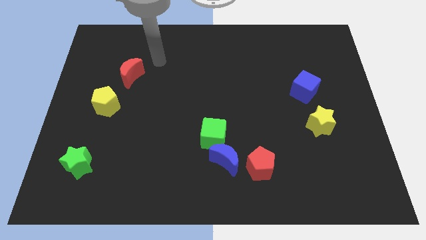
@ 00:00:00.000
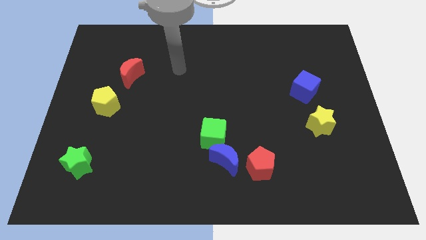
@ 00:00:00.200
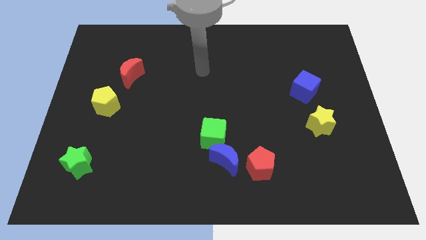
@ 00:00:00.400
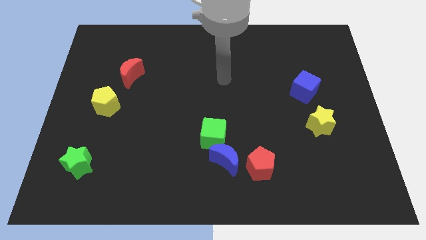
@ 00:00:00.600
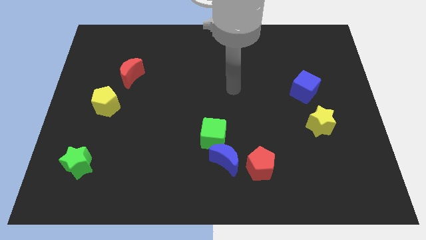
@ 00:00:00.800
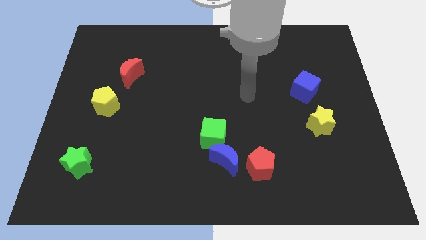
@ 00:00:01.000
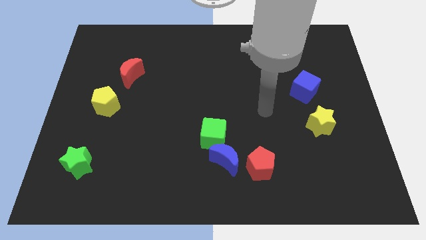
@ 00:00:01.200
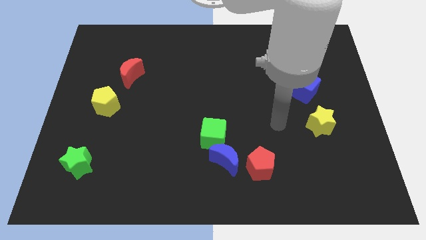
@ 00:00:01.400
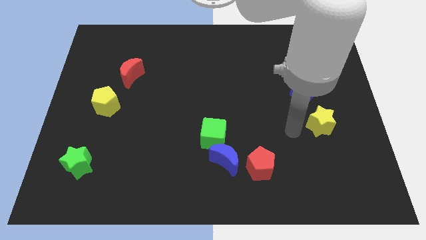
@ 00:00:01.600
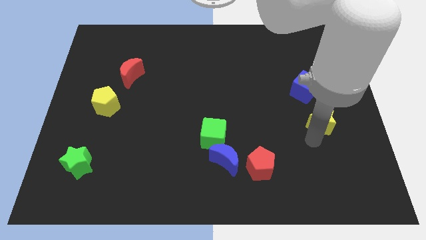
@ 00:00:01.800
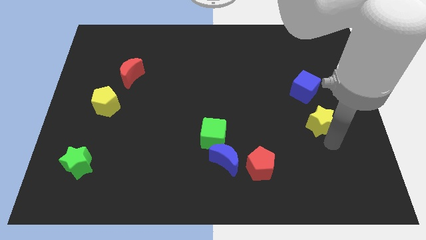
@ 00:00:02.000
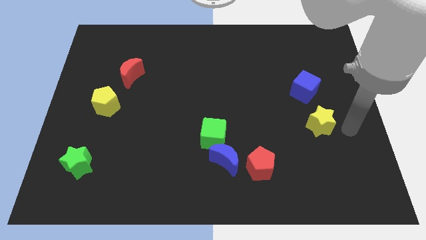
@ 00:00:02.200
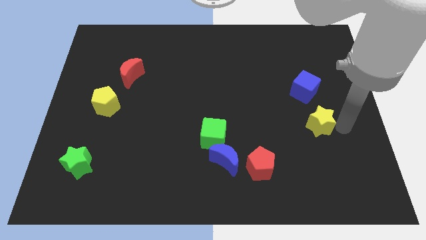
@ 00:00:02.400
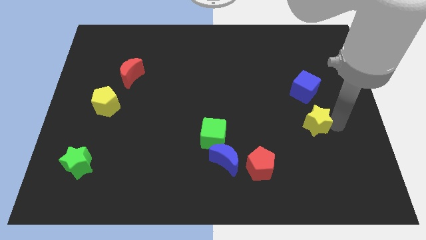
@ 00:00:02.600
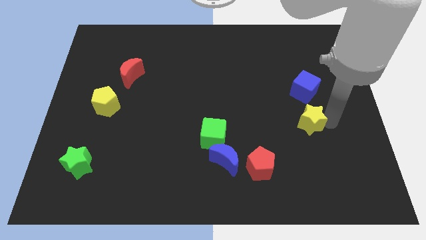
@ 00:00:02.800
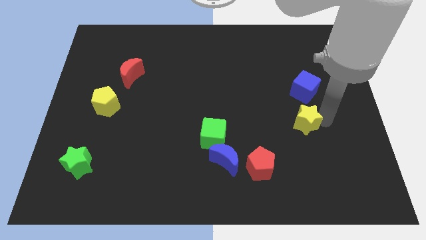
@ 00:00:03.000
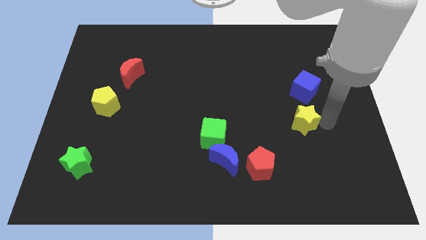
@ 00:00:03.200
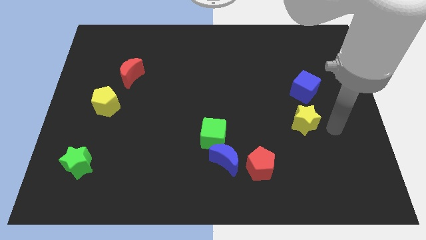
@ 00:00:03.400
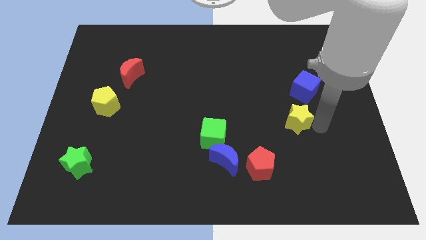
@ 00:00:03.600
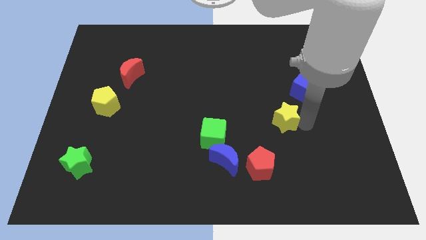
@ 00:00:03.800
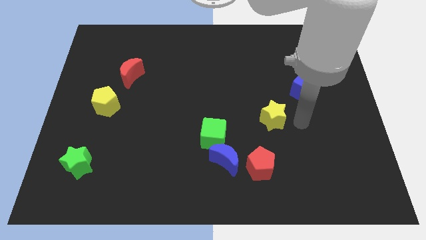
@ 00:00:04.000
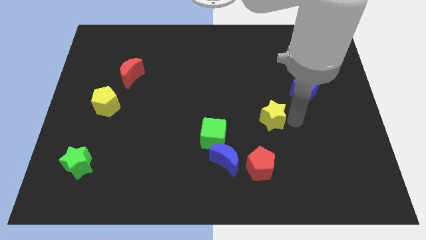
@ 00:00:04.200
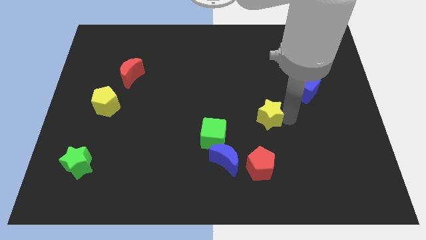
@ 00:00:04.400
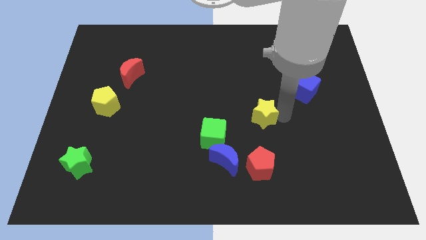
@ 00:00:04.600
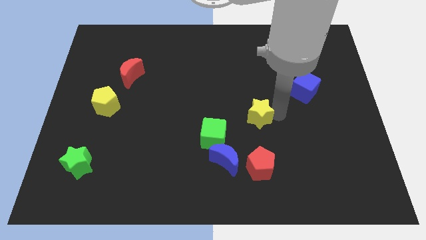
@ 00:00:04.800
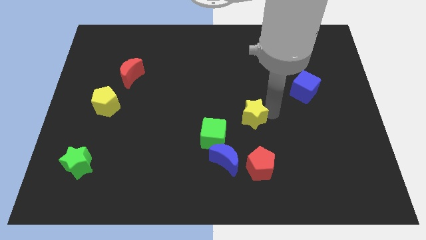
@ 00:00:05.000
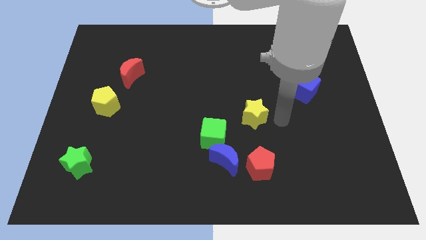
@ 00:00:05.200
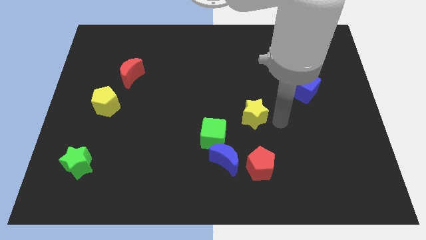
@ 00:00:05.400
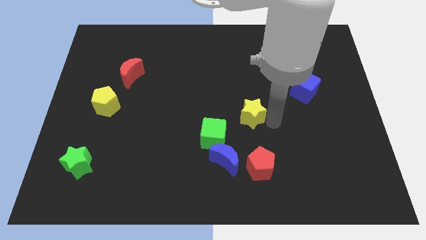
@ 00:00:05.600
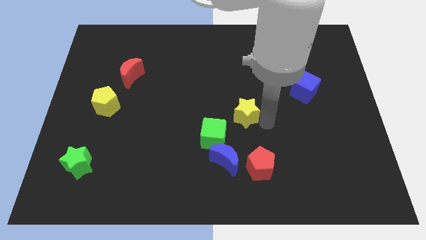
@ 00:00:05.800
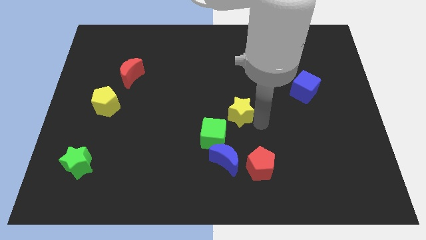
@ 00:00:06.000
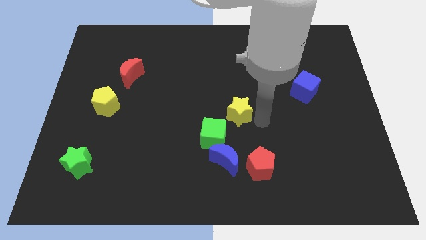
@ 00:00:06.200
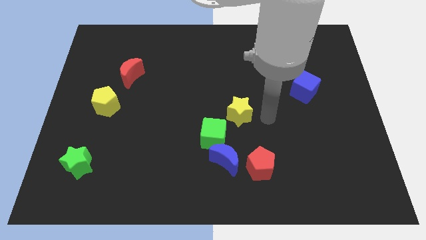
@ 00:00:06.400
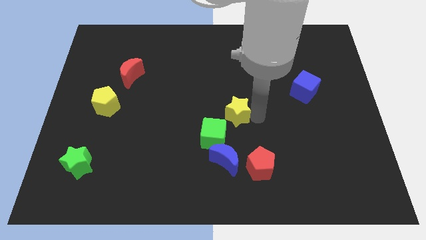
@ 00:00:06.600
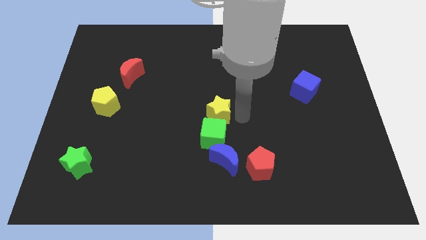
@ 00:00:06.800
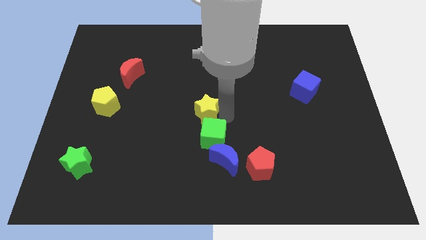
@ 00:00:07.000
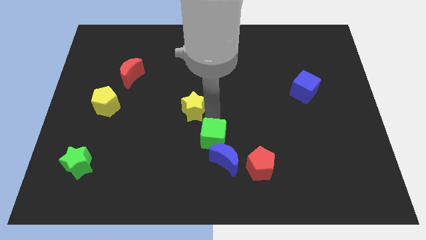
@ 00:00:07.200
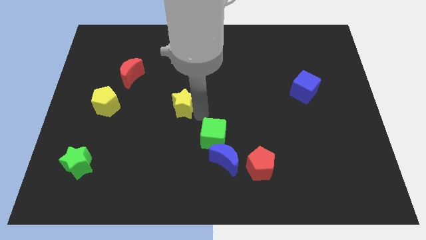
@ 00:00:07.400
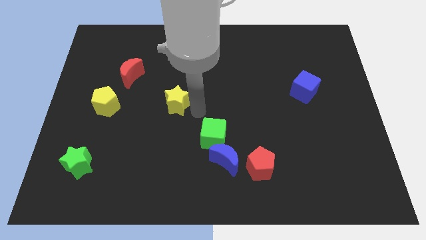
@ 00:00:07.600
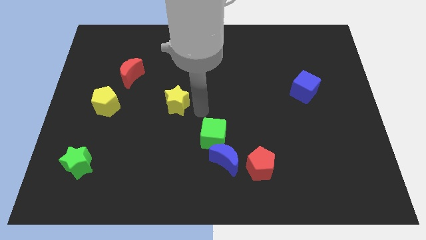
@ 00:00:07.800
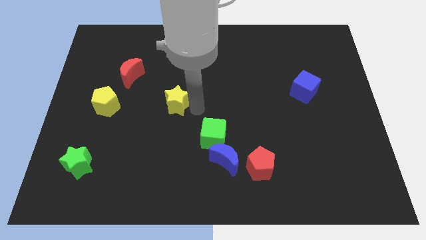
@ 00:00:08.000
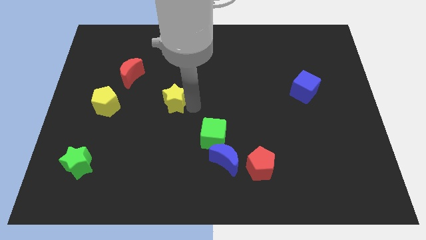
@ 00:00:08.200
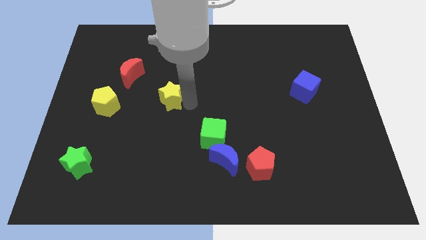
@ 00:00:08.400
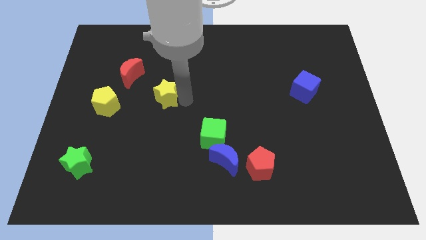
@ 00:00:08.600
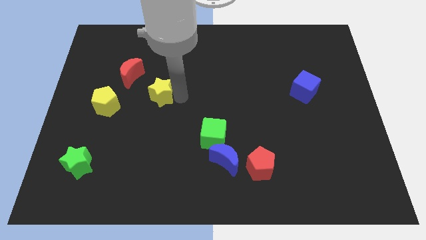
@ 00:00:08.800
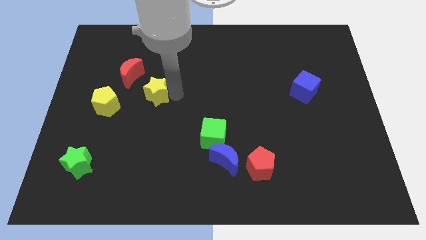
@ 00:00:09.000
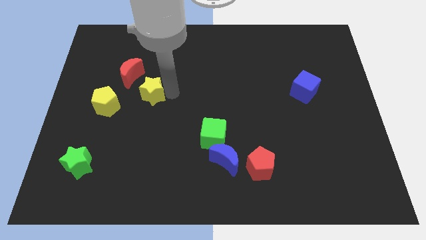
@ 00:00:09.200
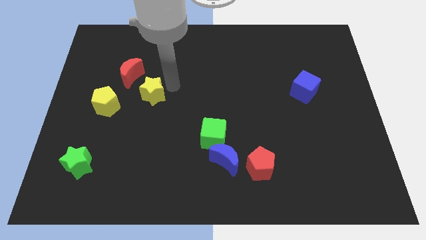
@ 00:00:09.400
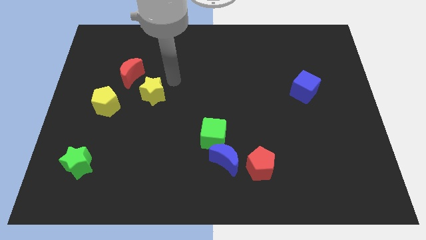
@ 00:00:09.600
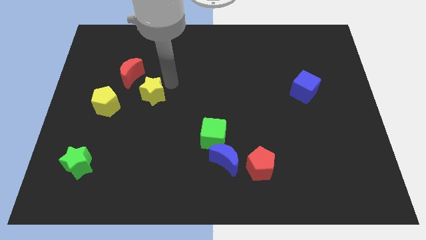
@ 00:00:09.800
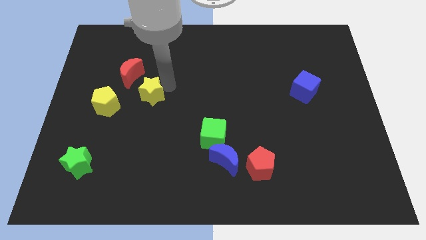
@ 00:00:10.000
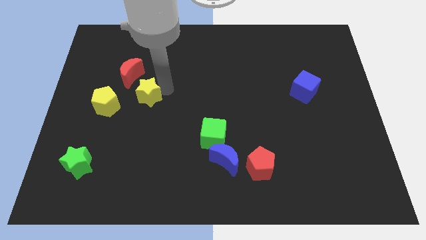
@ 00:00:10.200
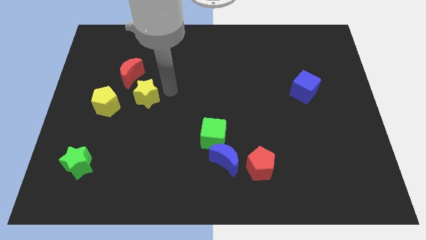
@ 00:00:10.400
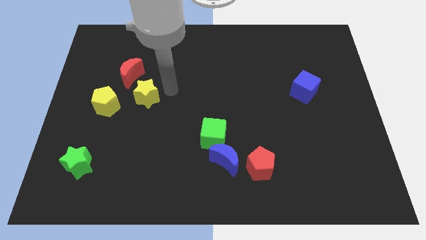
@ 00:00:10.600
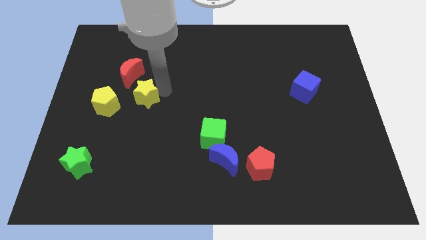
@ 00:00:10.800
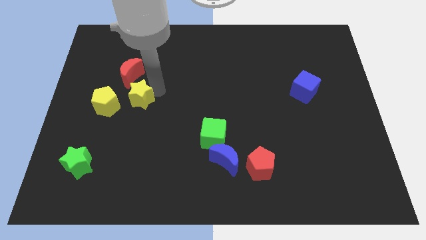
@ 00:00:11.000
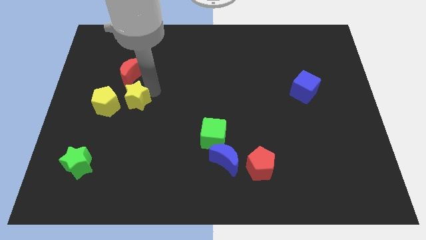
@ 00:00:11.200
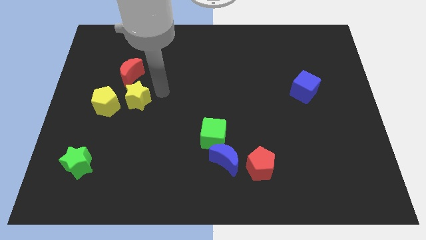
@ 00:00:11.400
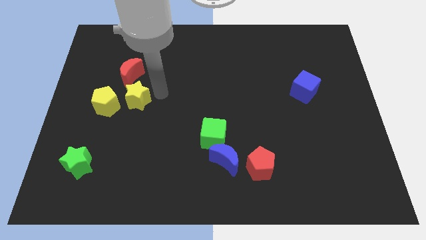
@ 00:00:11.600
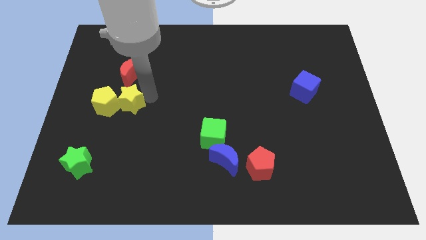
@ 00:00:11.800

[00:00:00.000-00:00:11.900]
slide the yellow star next to the yellow pentagon

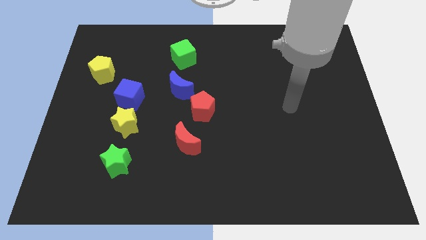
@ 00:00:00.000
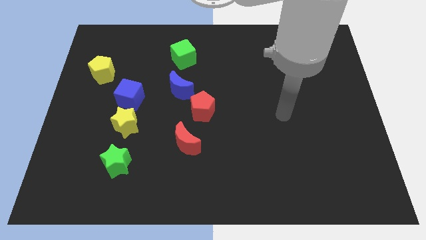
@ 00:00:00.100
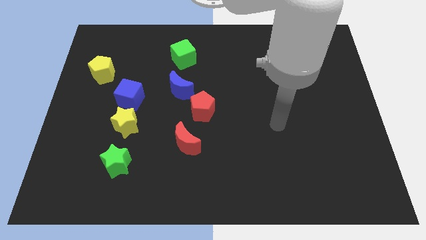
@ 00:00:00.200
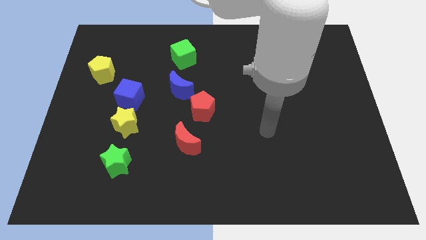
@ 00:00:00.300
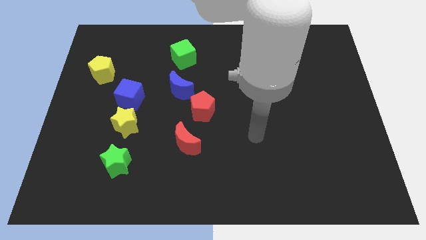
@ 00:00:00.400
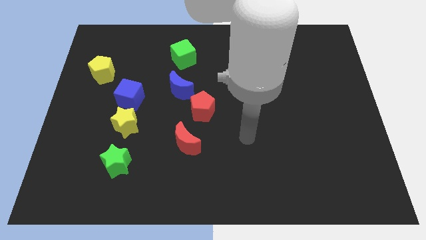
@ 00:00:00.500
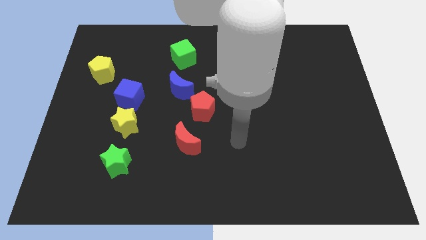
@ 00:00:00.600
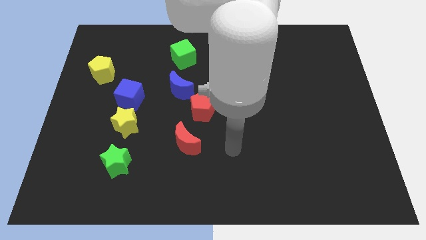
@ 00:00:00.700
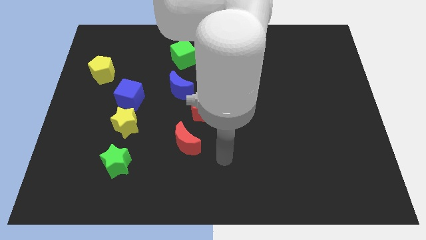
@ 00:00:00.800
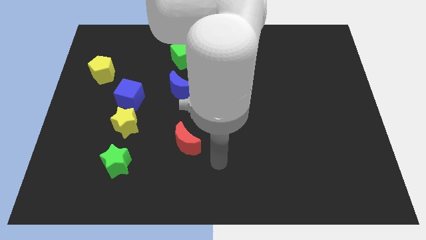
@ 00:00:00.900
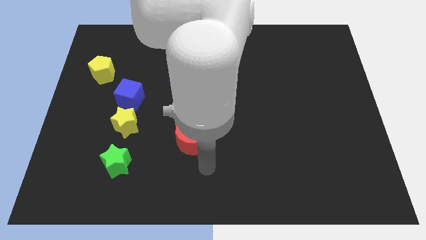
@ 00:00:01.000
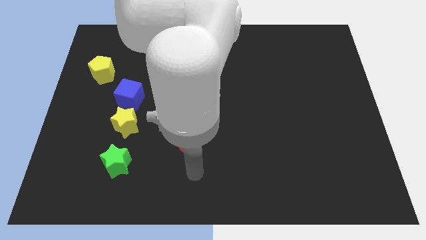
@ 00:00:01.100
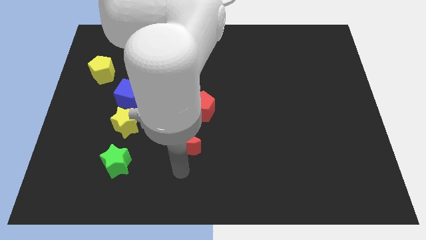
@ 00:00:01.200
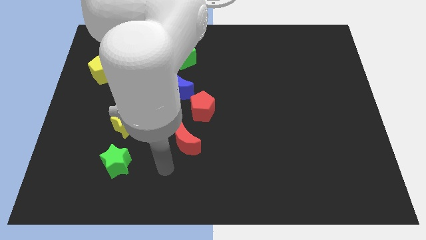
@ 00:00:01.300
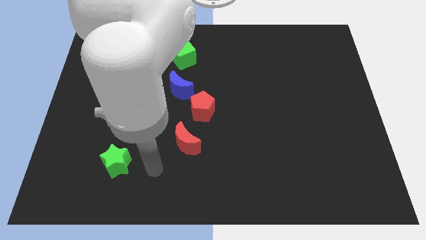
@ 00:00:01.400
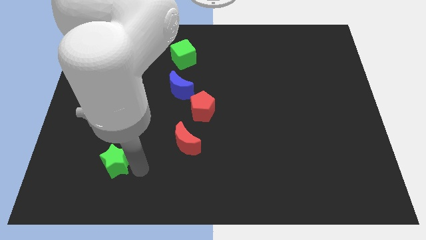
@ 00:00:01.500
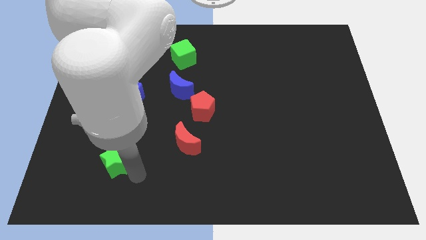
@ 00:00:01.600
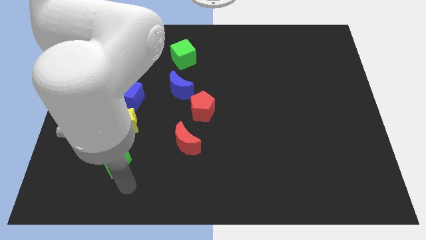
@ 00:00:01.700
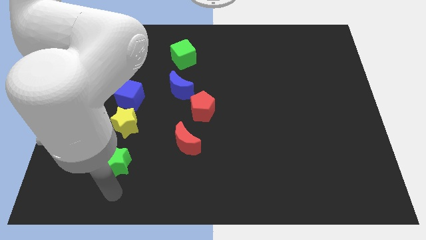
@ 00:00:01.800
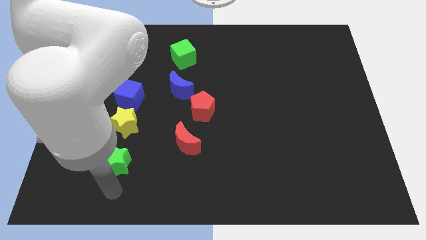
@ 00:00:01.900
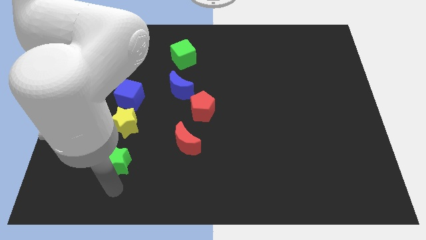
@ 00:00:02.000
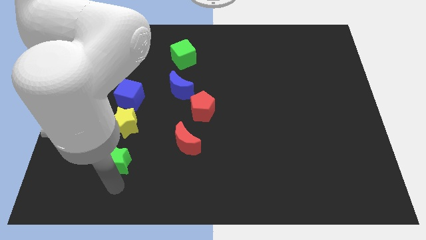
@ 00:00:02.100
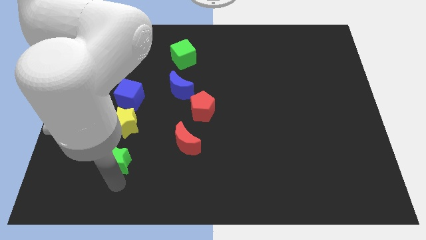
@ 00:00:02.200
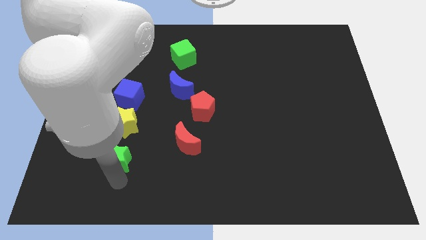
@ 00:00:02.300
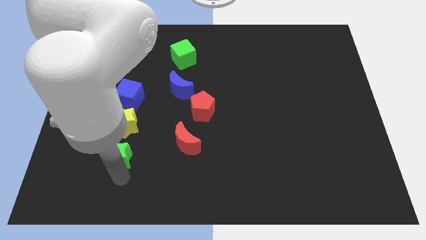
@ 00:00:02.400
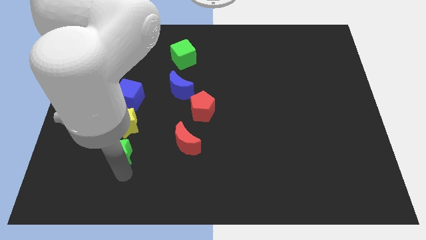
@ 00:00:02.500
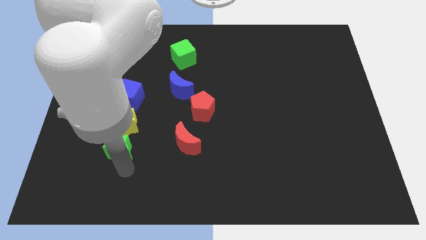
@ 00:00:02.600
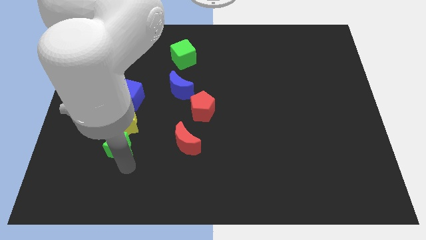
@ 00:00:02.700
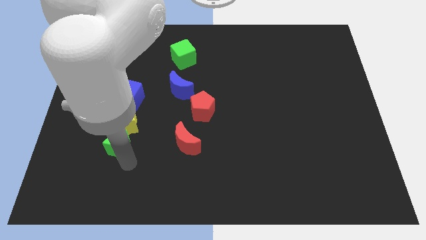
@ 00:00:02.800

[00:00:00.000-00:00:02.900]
push the green star towards the yellow star
